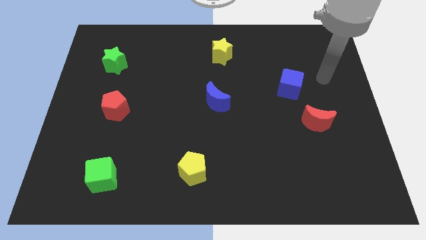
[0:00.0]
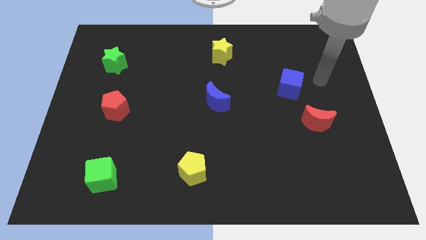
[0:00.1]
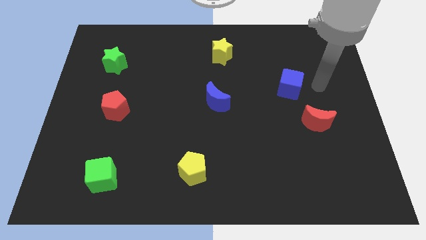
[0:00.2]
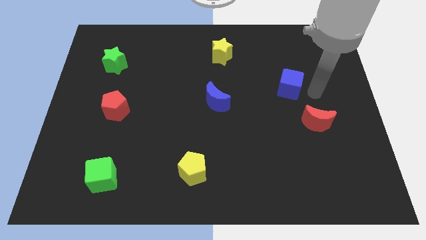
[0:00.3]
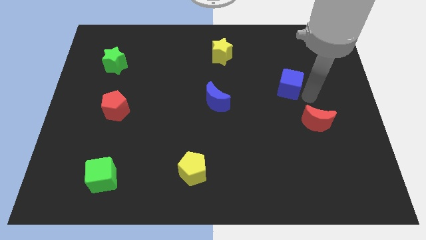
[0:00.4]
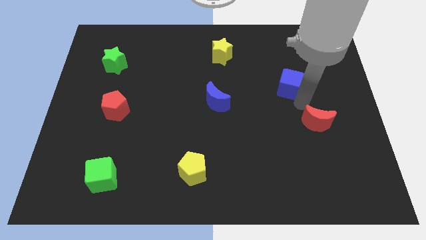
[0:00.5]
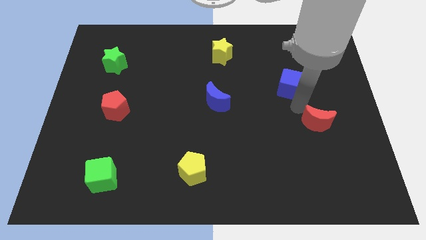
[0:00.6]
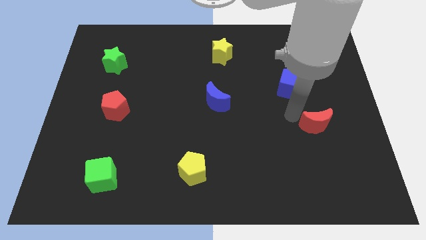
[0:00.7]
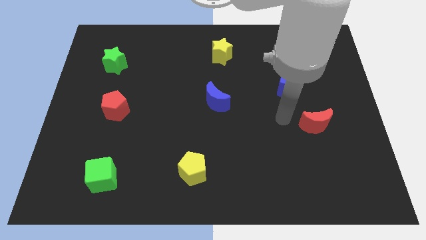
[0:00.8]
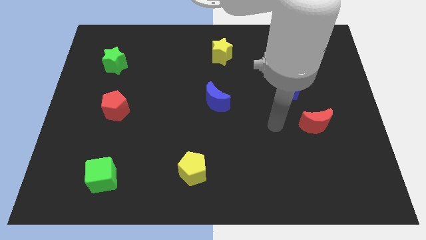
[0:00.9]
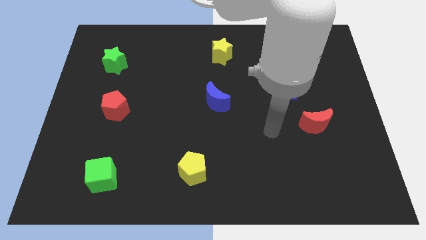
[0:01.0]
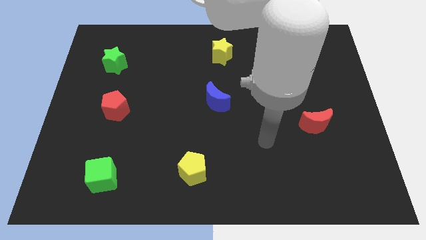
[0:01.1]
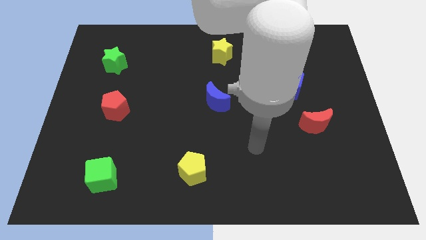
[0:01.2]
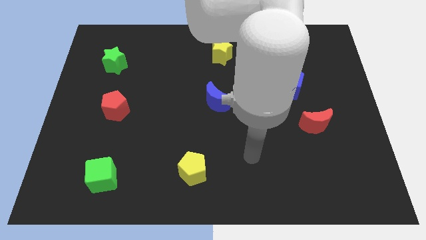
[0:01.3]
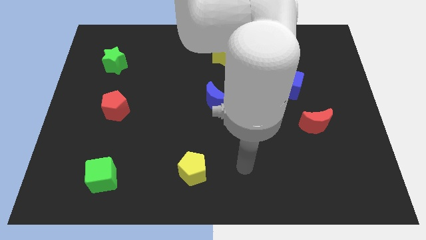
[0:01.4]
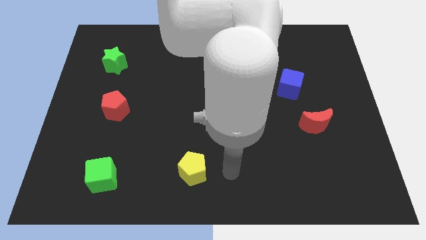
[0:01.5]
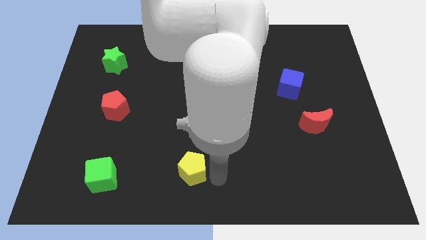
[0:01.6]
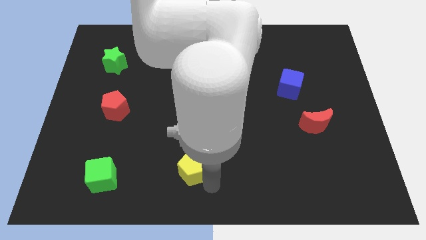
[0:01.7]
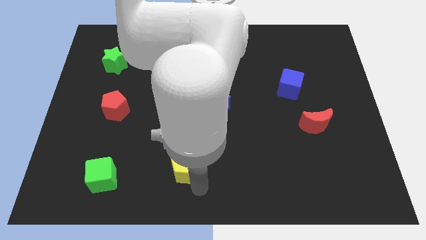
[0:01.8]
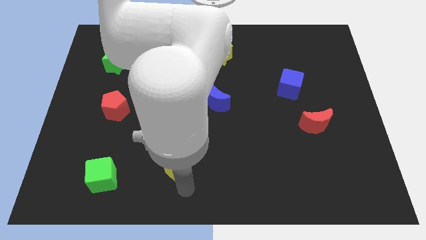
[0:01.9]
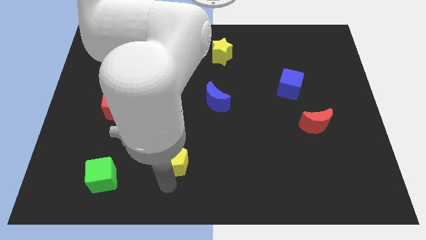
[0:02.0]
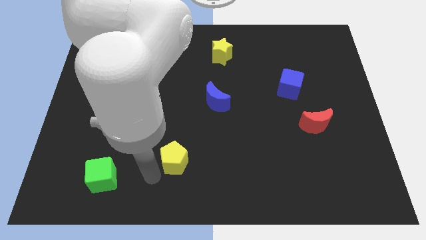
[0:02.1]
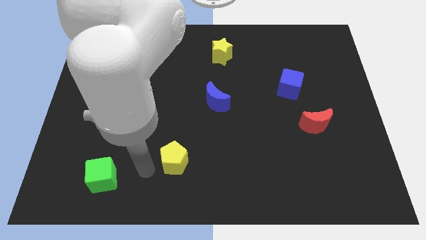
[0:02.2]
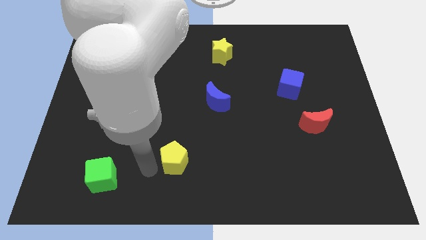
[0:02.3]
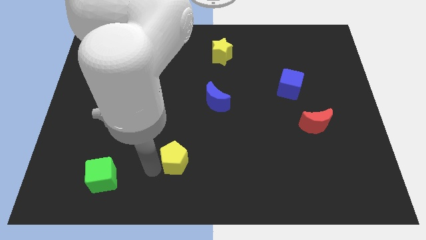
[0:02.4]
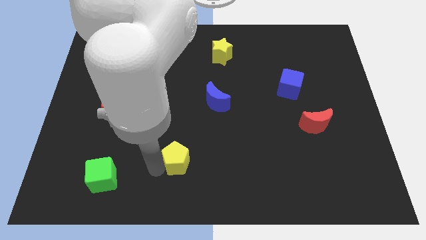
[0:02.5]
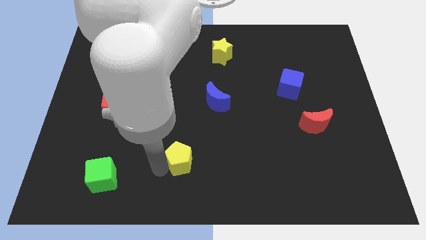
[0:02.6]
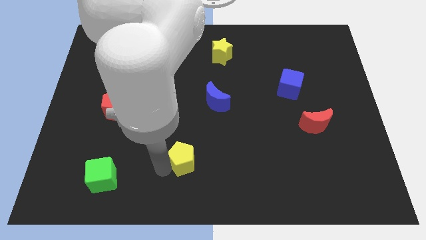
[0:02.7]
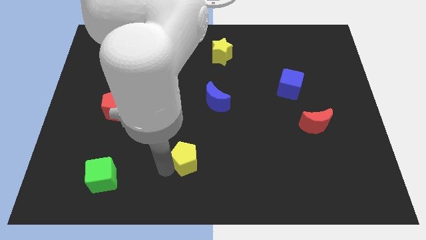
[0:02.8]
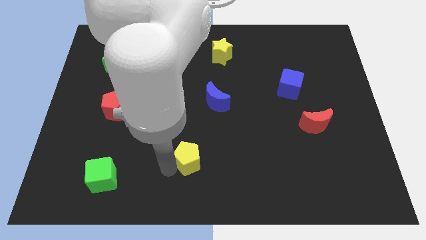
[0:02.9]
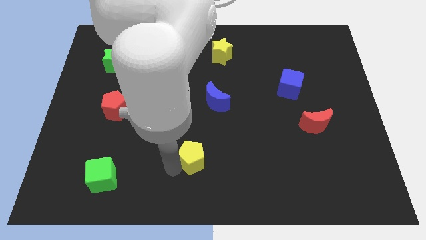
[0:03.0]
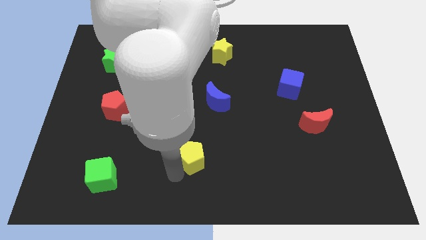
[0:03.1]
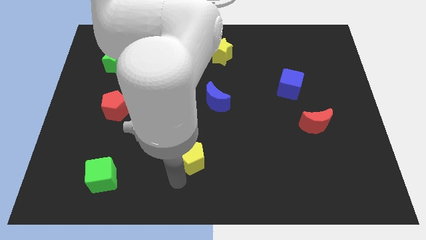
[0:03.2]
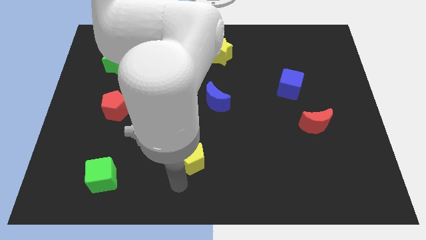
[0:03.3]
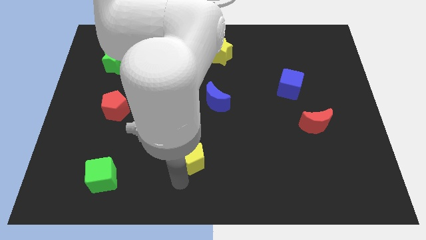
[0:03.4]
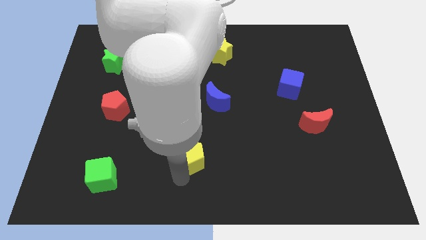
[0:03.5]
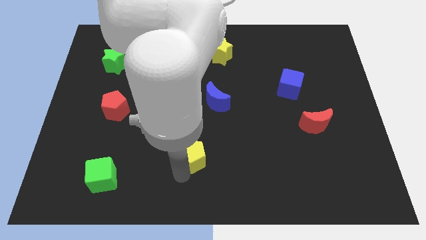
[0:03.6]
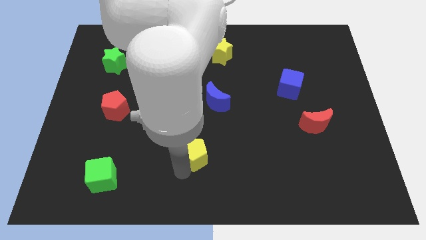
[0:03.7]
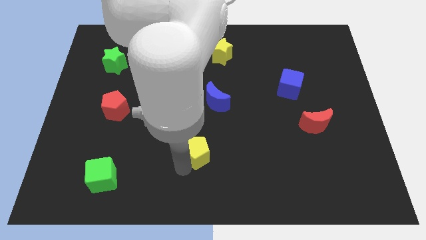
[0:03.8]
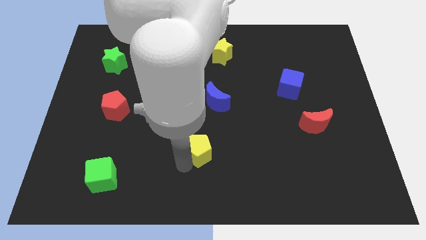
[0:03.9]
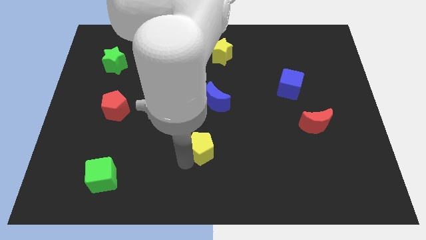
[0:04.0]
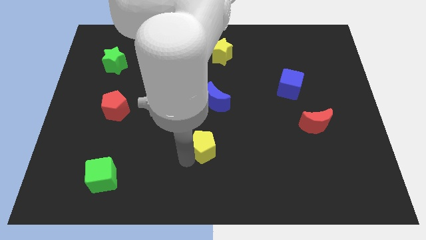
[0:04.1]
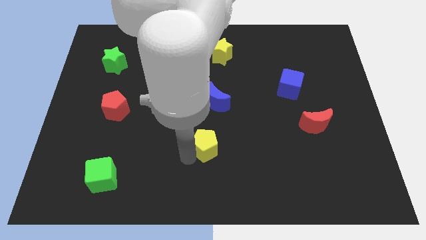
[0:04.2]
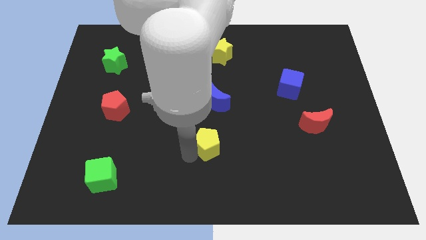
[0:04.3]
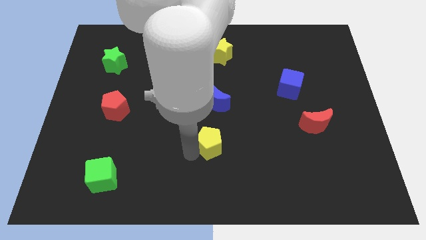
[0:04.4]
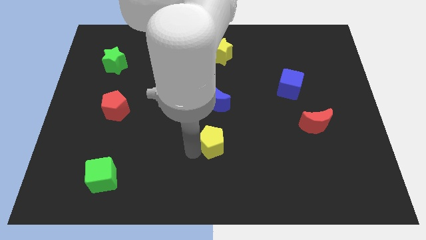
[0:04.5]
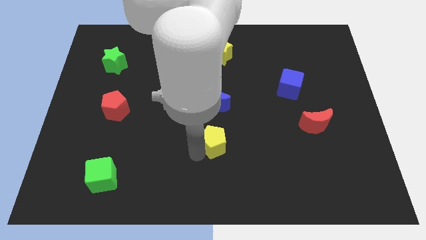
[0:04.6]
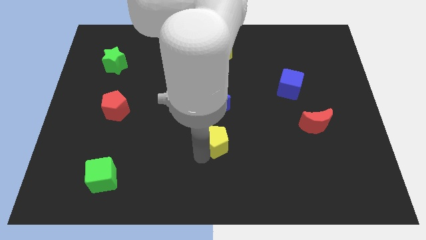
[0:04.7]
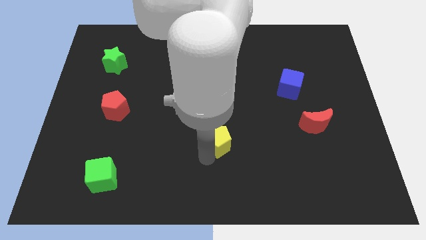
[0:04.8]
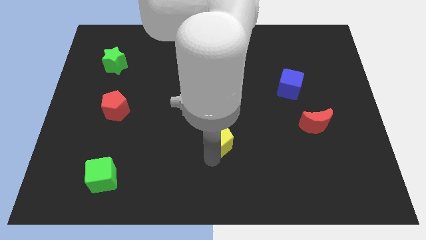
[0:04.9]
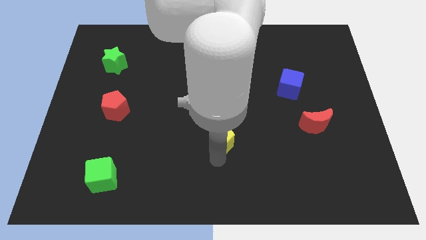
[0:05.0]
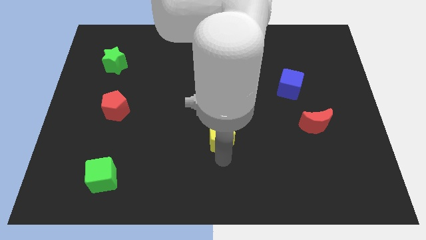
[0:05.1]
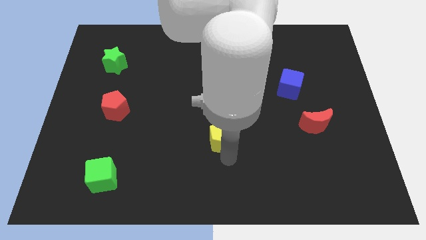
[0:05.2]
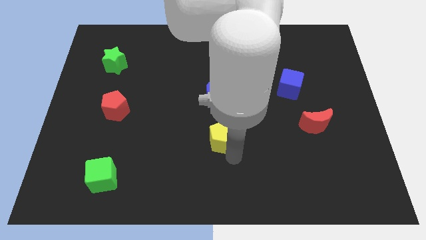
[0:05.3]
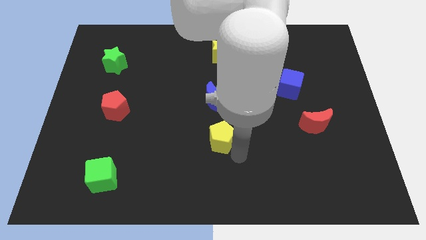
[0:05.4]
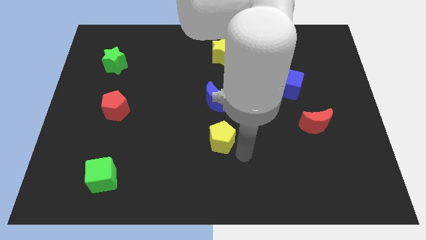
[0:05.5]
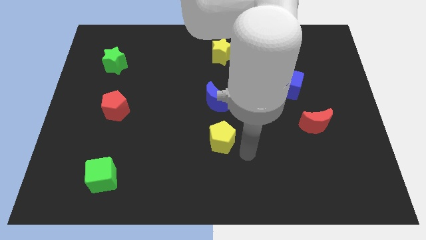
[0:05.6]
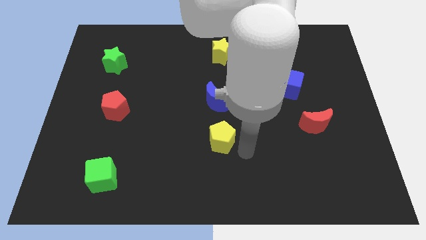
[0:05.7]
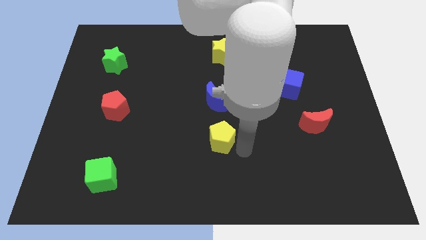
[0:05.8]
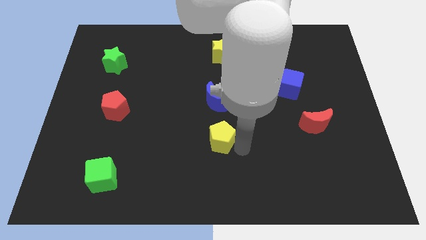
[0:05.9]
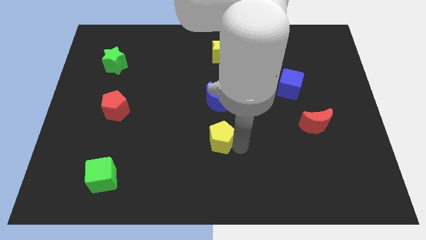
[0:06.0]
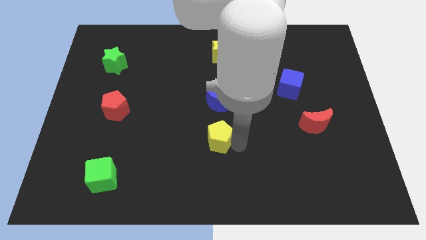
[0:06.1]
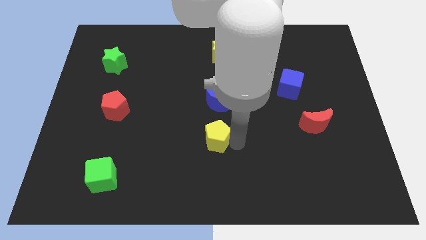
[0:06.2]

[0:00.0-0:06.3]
slightly slide the yellow pentagon up

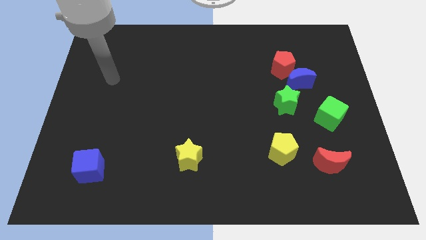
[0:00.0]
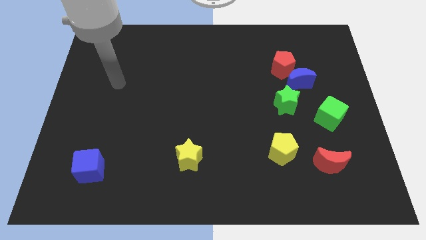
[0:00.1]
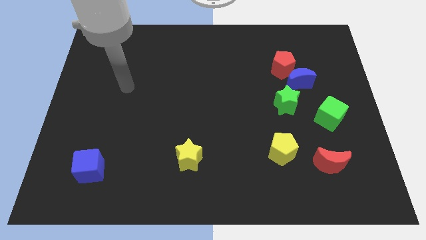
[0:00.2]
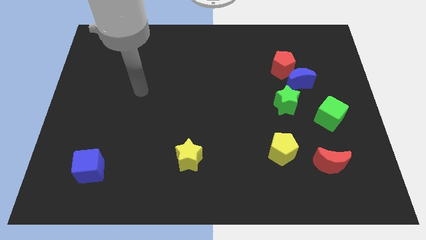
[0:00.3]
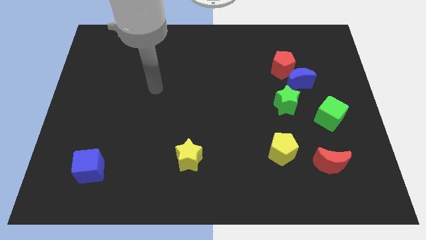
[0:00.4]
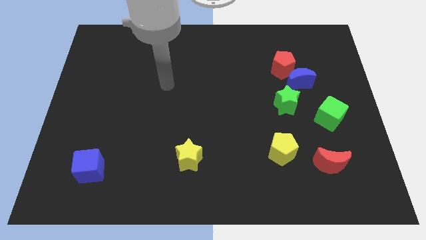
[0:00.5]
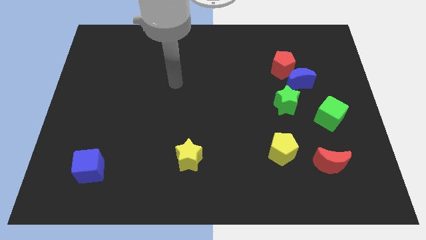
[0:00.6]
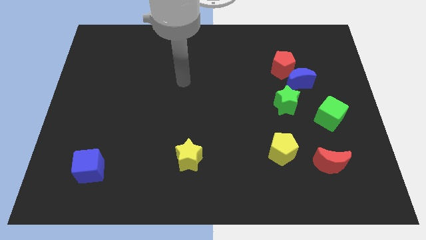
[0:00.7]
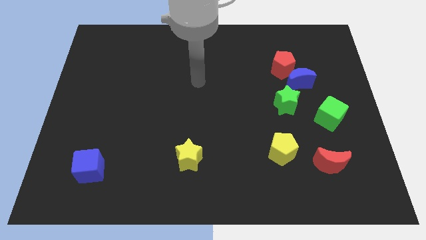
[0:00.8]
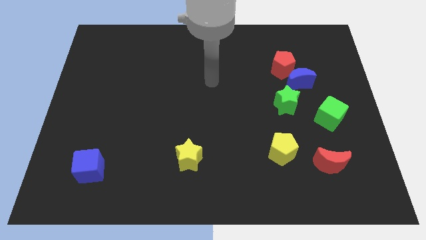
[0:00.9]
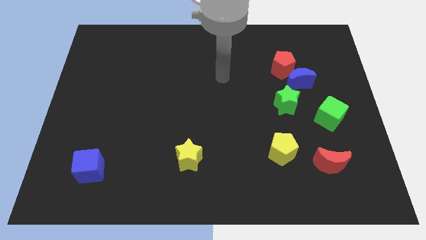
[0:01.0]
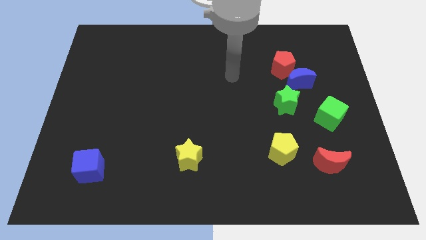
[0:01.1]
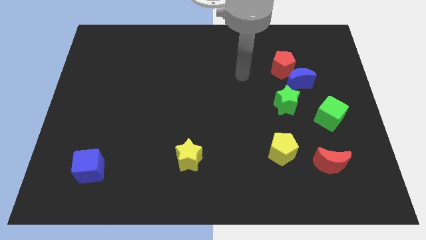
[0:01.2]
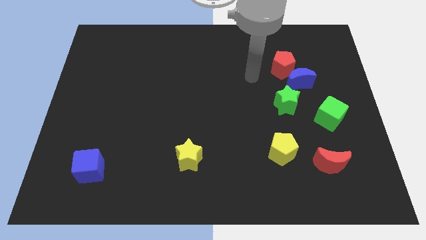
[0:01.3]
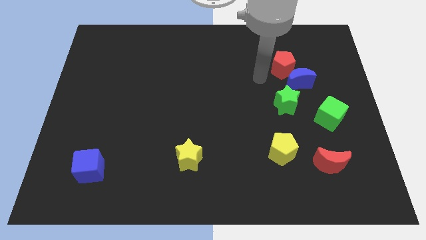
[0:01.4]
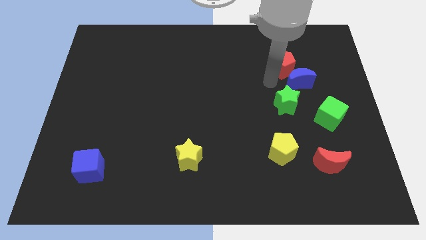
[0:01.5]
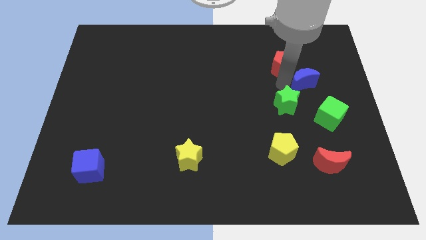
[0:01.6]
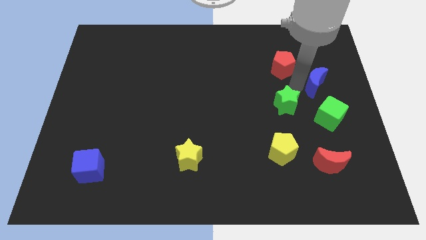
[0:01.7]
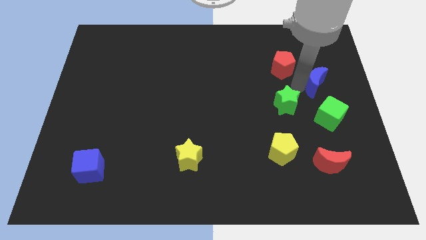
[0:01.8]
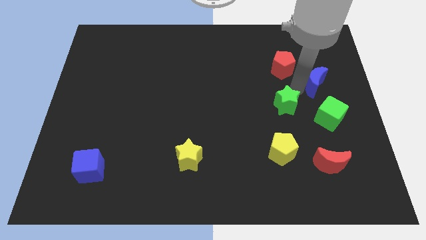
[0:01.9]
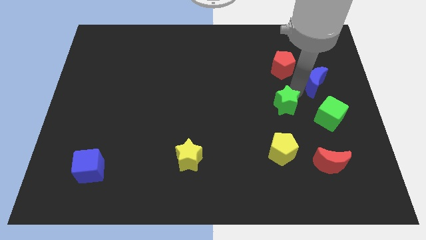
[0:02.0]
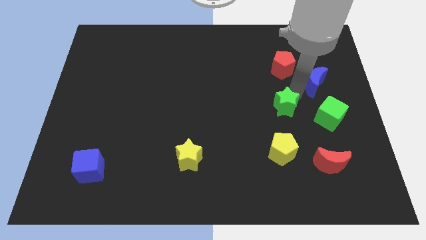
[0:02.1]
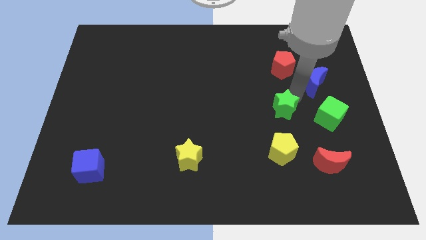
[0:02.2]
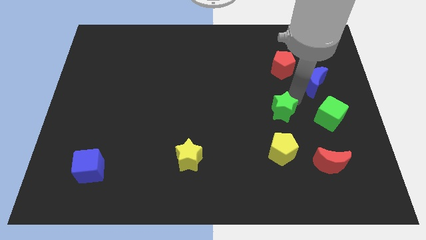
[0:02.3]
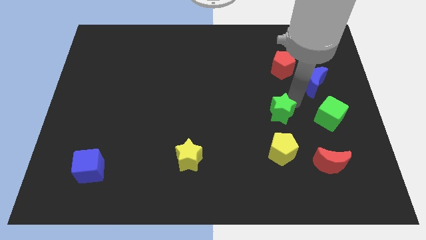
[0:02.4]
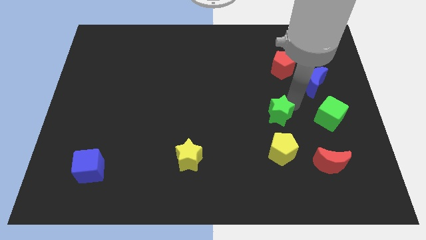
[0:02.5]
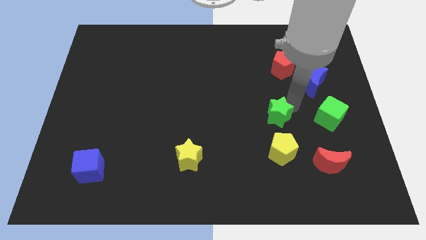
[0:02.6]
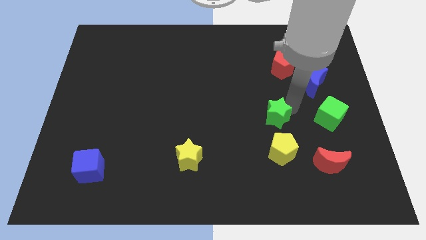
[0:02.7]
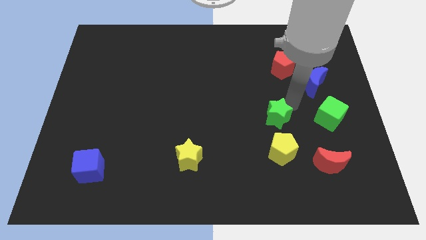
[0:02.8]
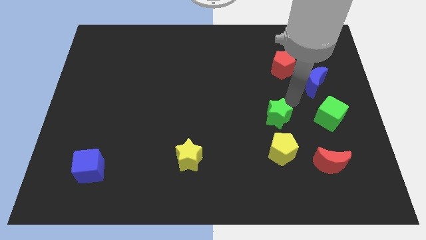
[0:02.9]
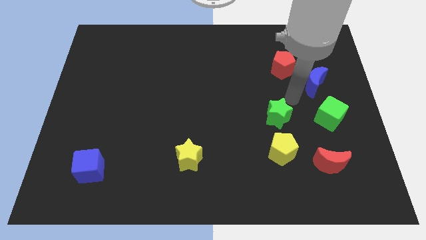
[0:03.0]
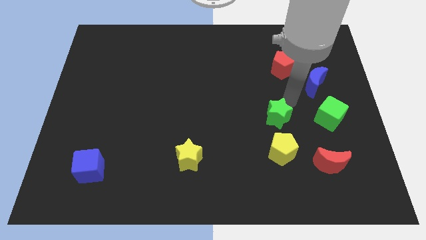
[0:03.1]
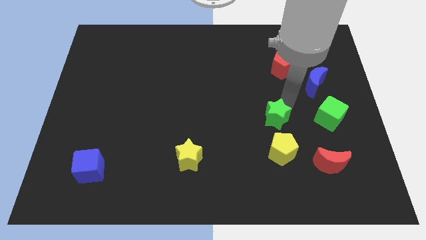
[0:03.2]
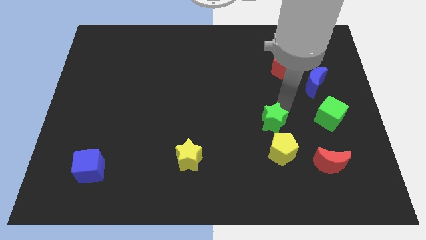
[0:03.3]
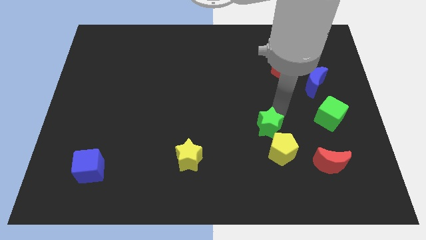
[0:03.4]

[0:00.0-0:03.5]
push the green star down and then left somewhat
